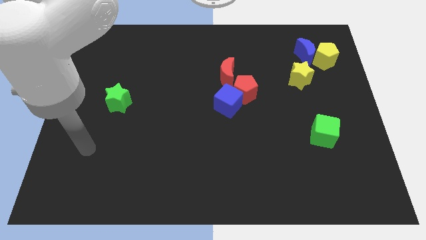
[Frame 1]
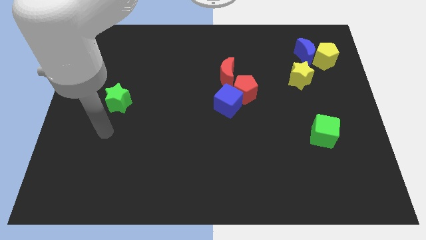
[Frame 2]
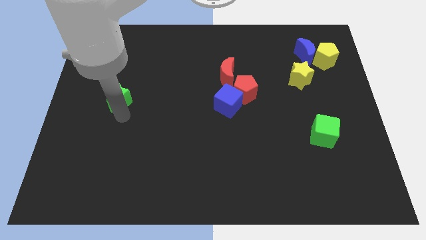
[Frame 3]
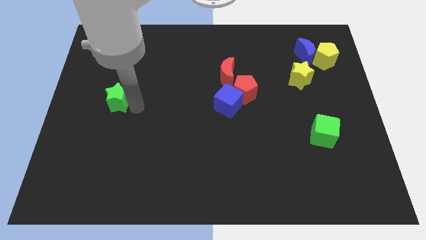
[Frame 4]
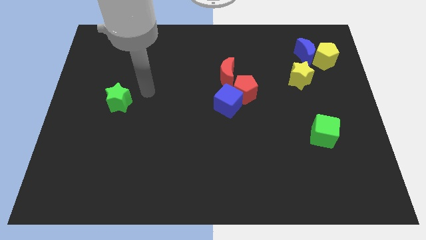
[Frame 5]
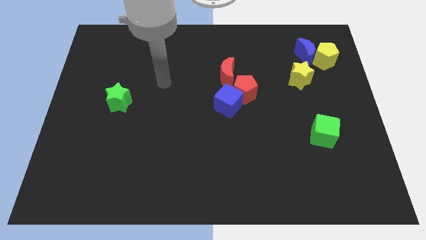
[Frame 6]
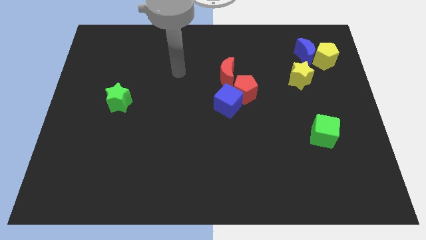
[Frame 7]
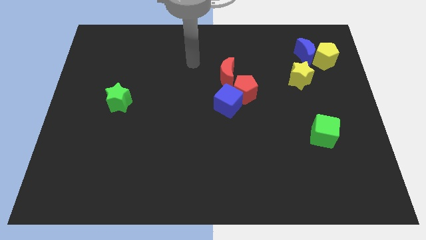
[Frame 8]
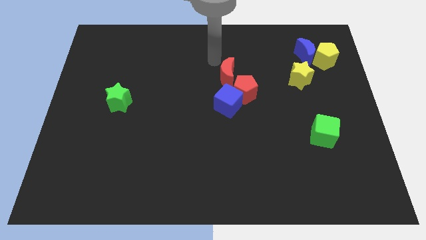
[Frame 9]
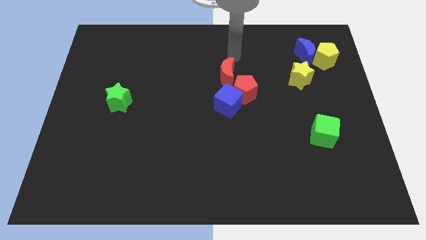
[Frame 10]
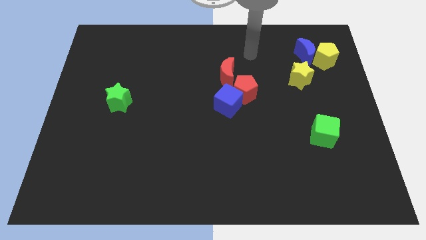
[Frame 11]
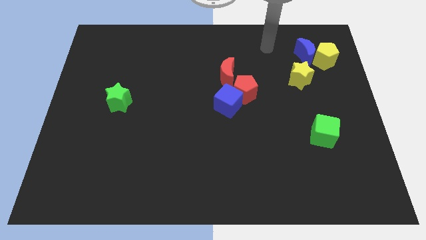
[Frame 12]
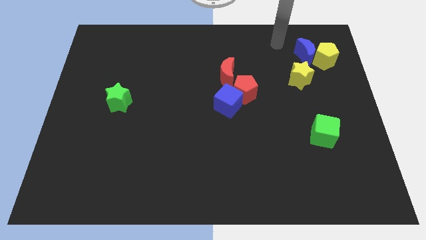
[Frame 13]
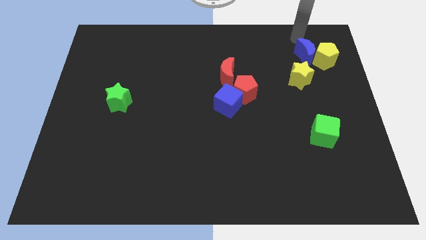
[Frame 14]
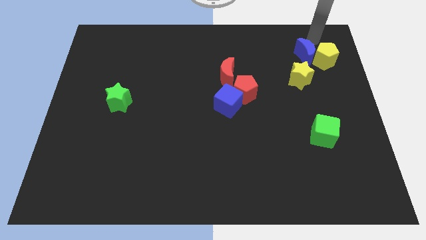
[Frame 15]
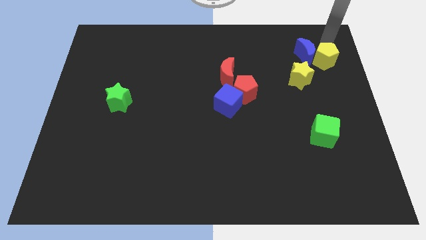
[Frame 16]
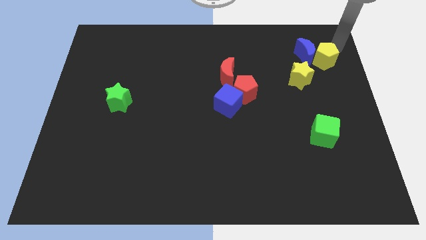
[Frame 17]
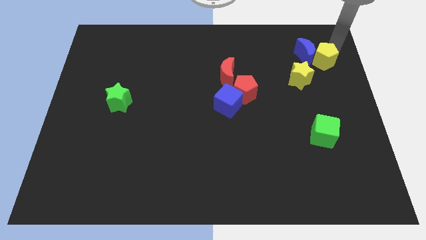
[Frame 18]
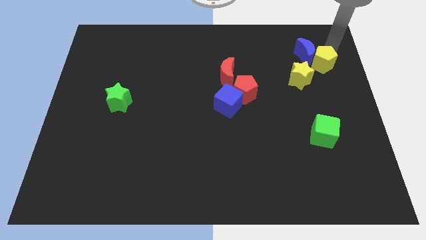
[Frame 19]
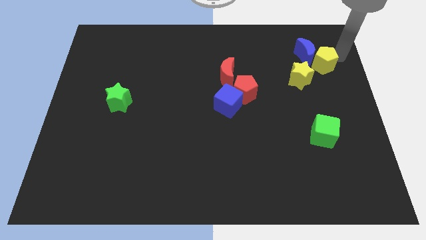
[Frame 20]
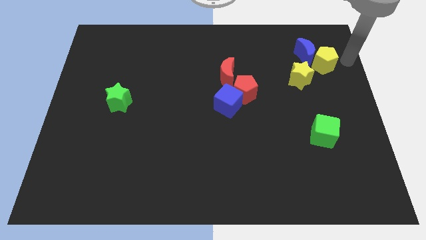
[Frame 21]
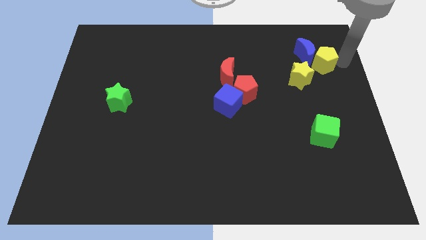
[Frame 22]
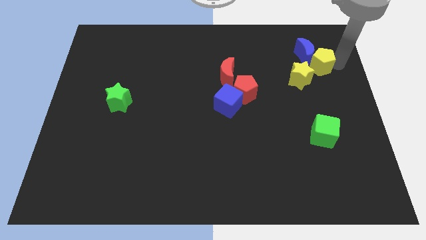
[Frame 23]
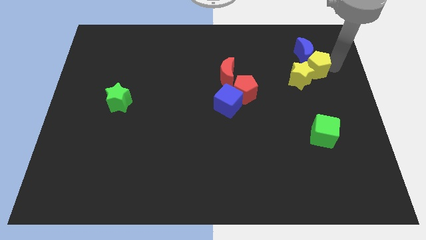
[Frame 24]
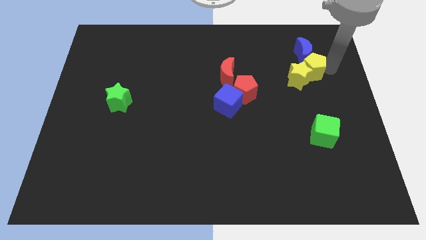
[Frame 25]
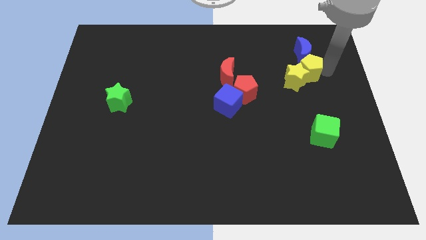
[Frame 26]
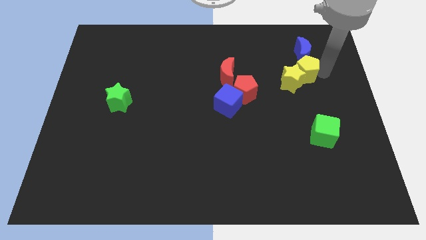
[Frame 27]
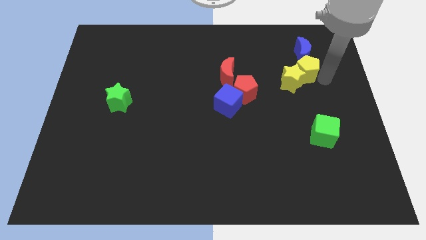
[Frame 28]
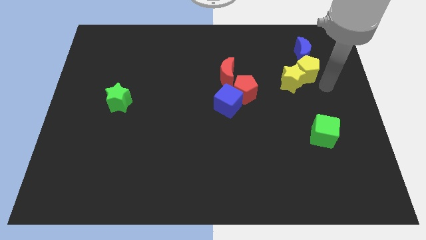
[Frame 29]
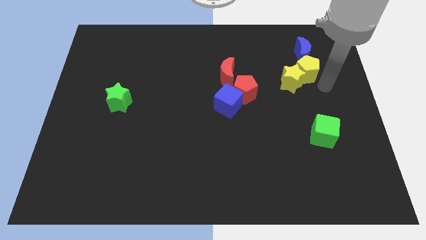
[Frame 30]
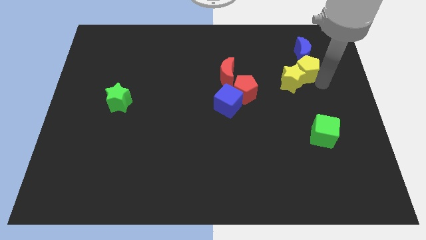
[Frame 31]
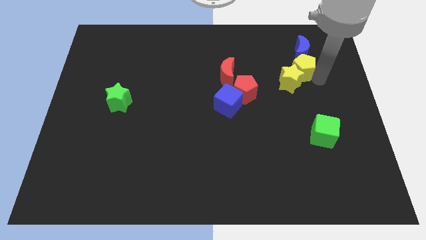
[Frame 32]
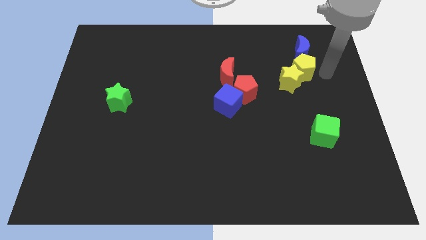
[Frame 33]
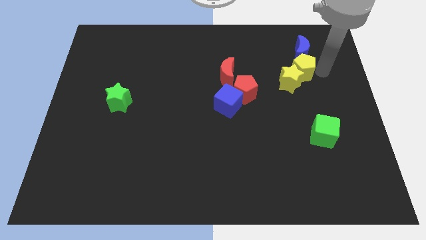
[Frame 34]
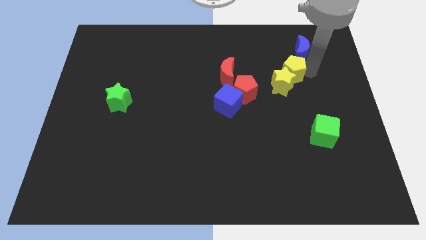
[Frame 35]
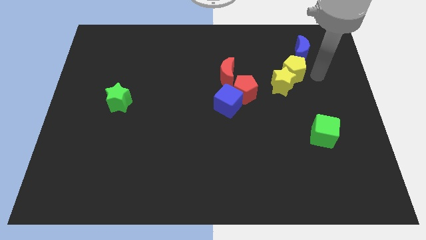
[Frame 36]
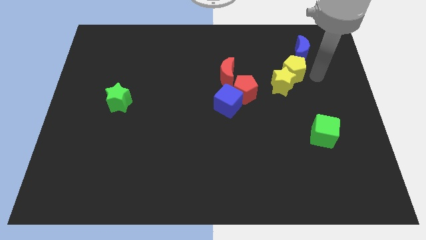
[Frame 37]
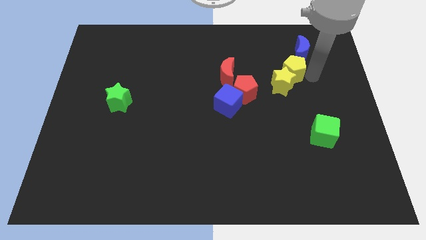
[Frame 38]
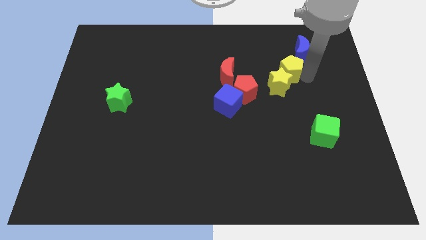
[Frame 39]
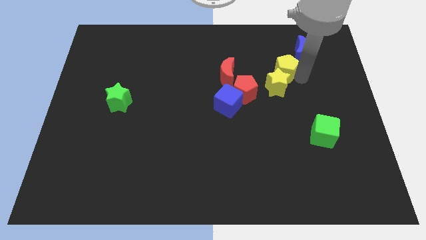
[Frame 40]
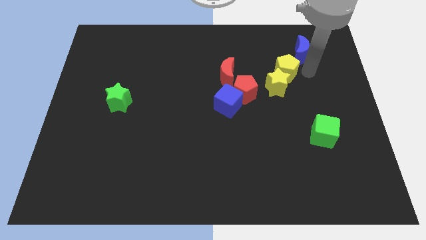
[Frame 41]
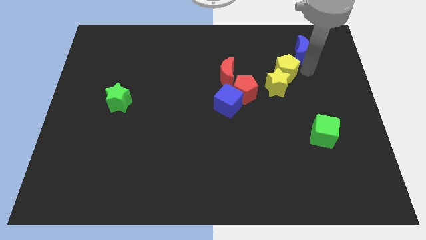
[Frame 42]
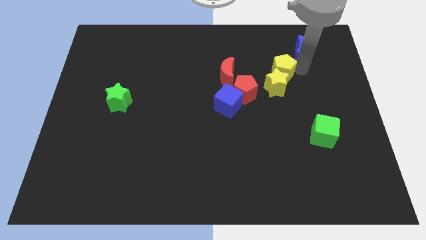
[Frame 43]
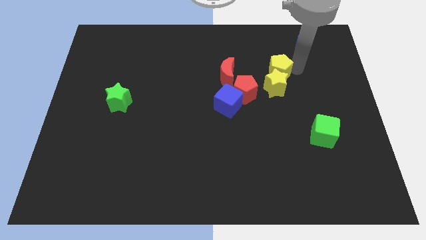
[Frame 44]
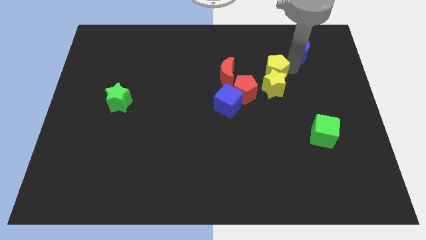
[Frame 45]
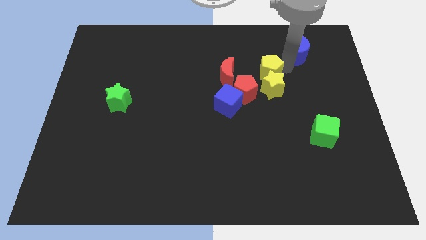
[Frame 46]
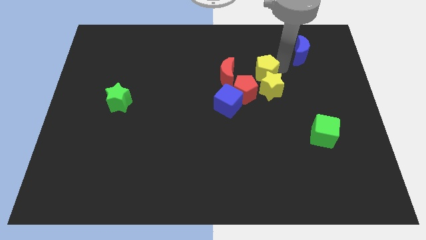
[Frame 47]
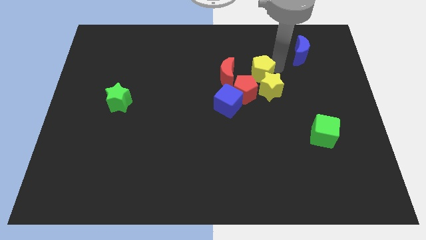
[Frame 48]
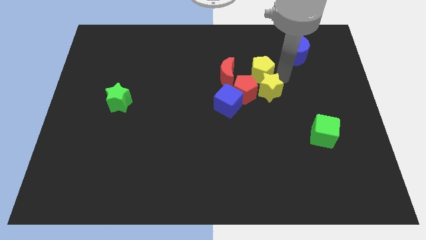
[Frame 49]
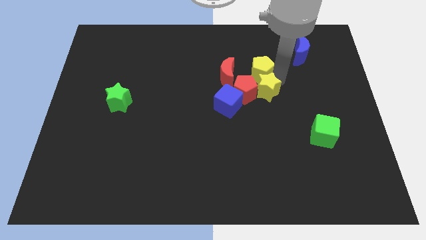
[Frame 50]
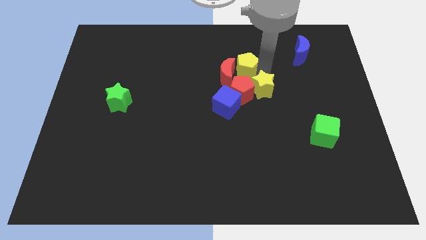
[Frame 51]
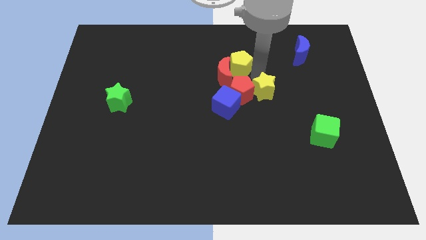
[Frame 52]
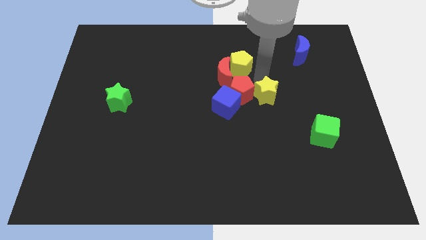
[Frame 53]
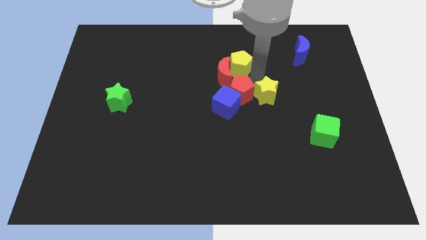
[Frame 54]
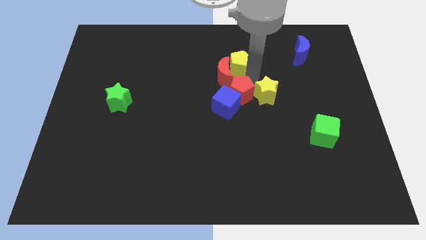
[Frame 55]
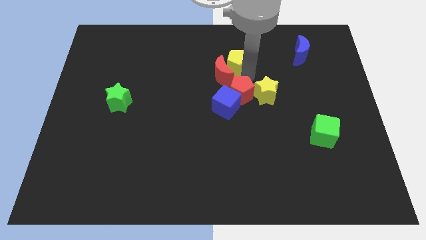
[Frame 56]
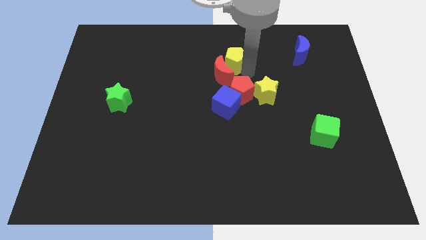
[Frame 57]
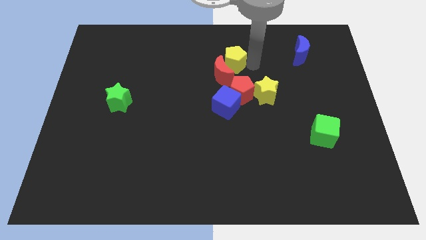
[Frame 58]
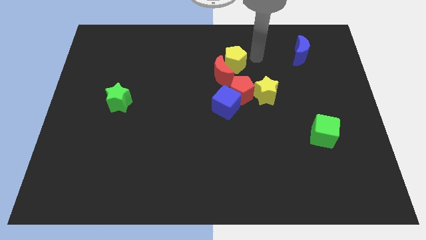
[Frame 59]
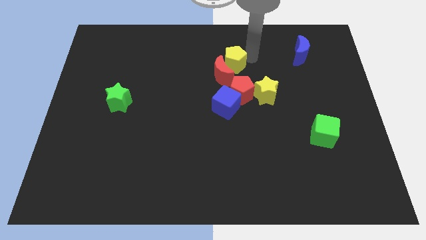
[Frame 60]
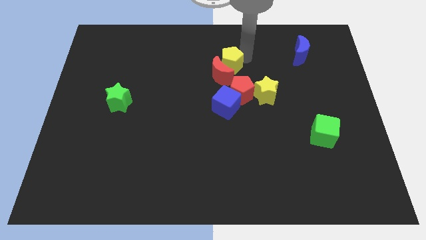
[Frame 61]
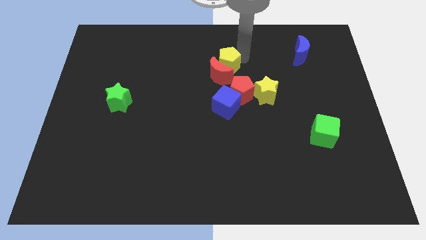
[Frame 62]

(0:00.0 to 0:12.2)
move the yellow pentagon to the top left of the red pentagon

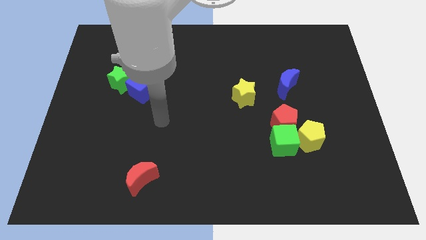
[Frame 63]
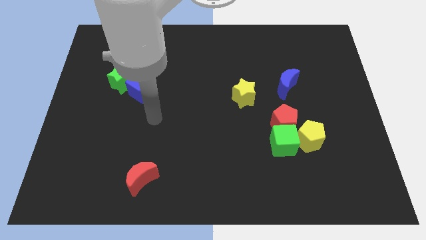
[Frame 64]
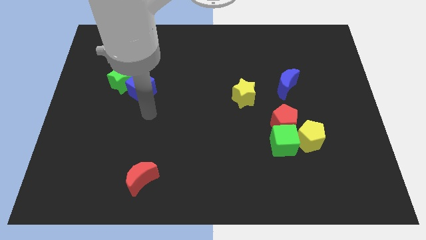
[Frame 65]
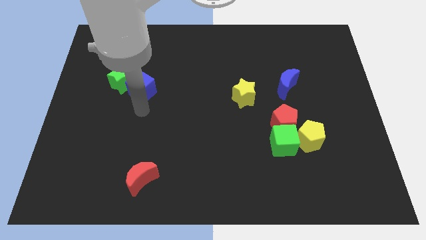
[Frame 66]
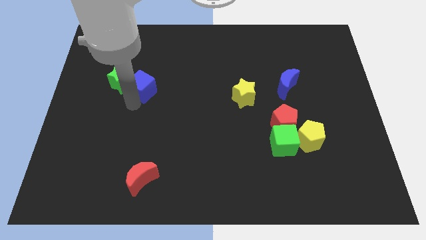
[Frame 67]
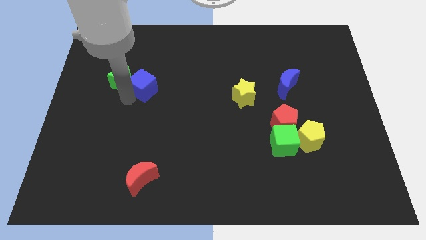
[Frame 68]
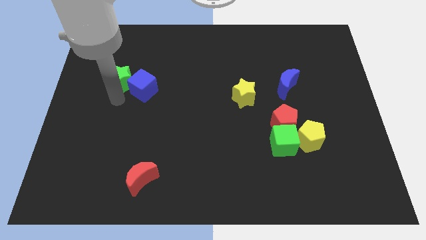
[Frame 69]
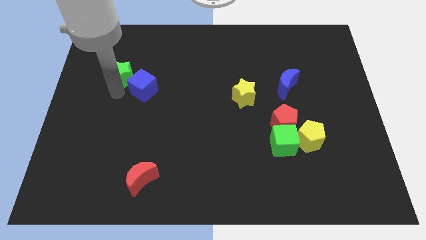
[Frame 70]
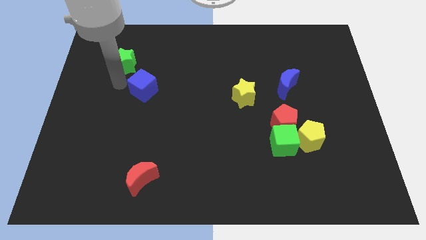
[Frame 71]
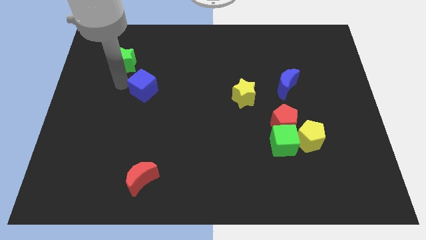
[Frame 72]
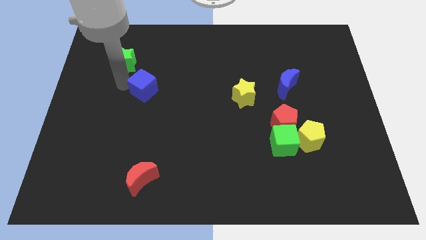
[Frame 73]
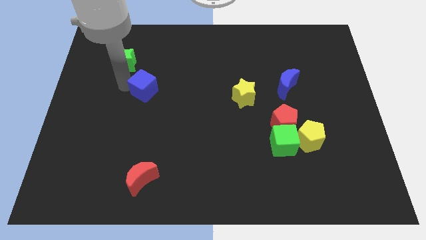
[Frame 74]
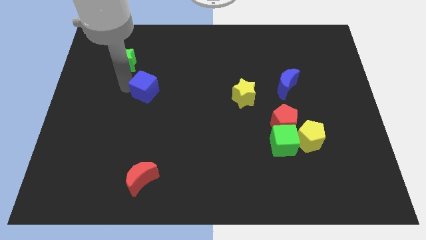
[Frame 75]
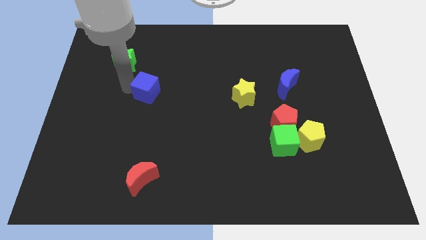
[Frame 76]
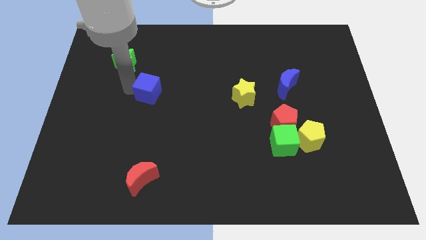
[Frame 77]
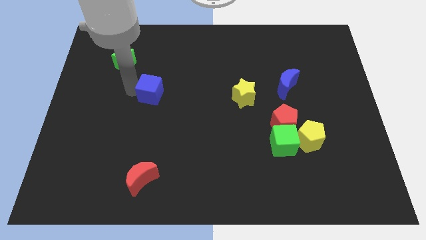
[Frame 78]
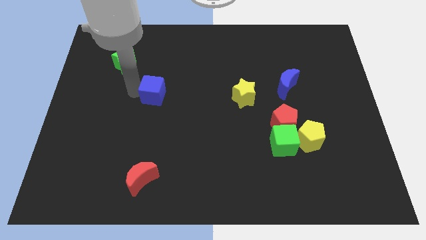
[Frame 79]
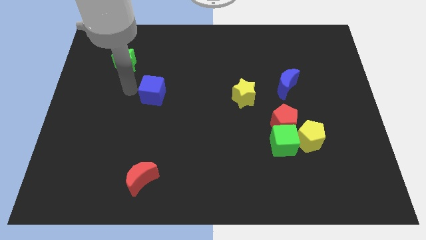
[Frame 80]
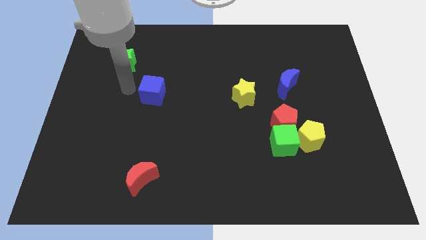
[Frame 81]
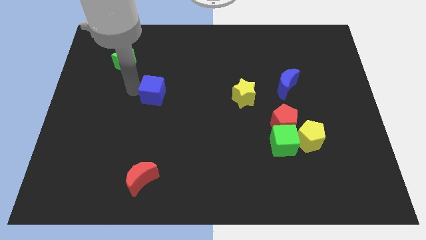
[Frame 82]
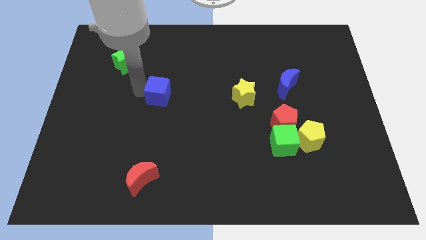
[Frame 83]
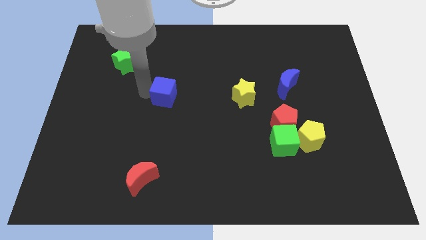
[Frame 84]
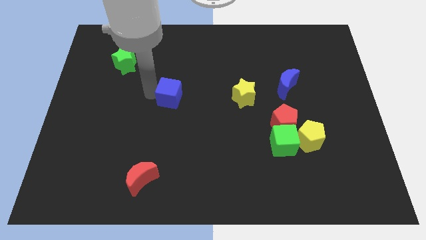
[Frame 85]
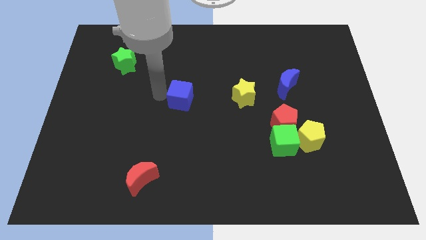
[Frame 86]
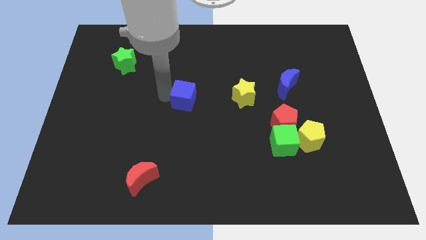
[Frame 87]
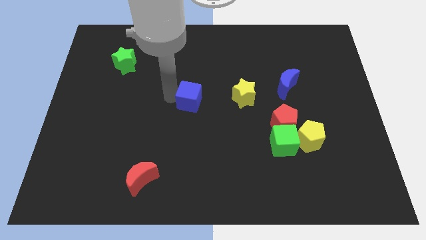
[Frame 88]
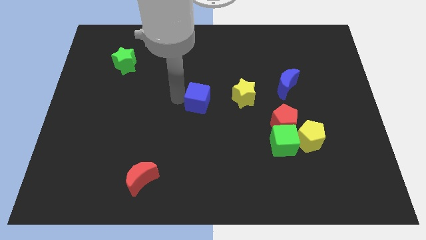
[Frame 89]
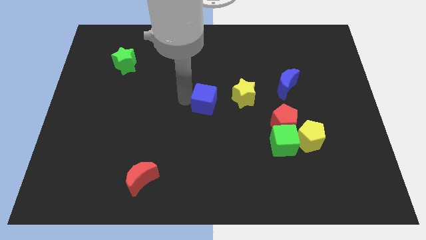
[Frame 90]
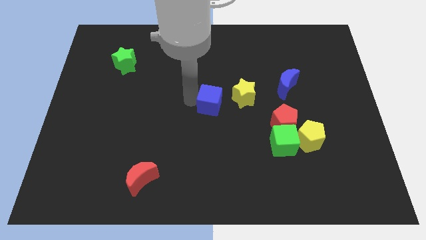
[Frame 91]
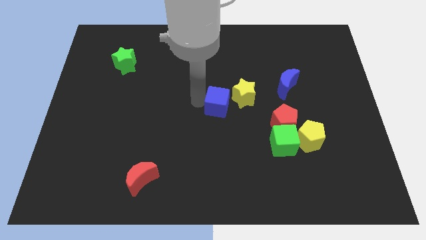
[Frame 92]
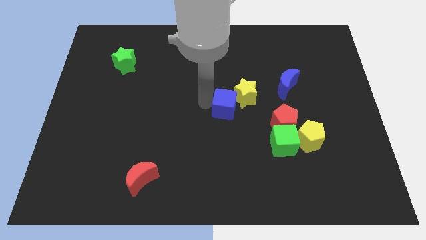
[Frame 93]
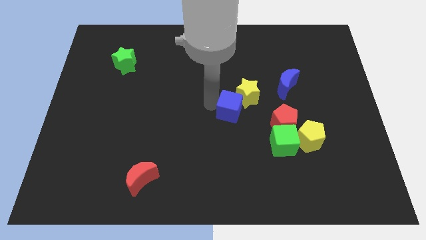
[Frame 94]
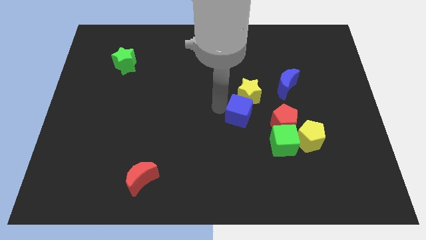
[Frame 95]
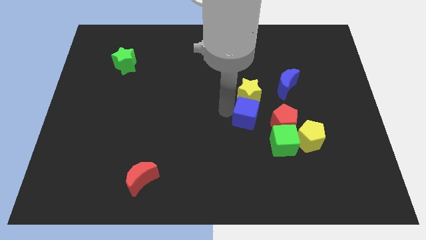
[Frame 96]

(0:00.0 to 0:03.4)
put the blue cube to the bottom right side of the yellow star
